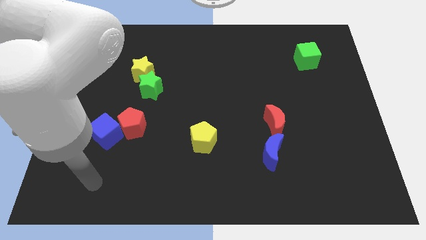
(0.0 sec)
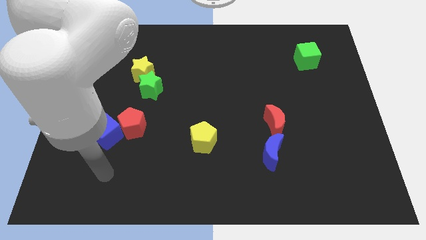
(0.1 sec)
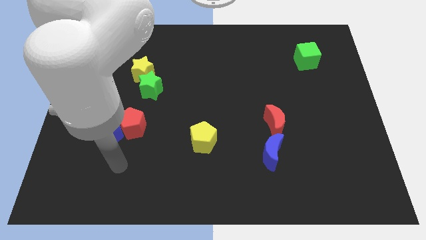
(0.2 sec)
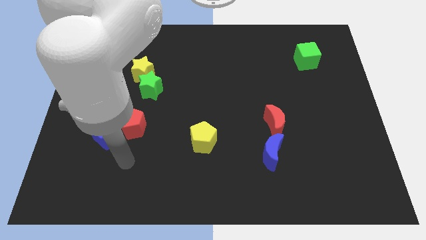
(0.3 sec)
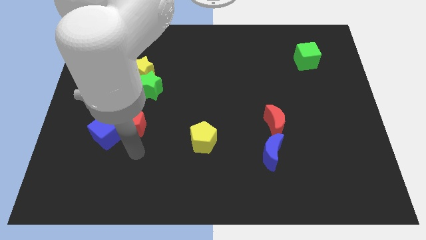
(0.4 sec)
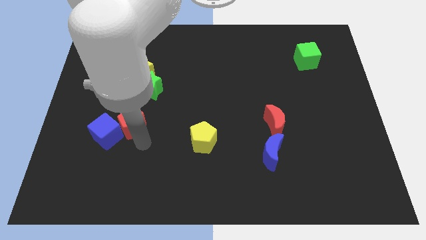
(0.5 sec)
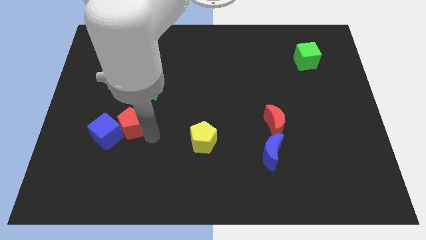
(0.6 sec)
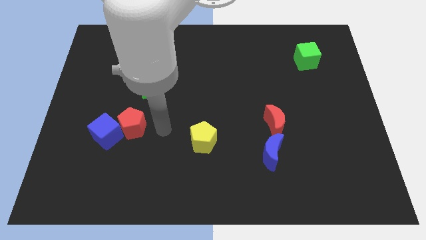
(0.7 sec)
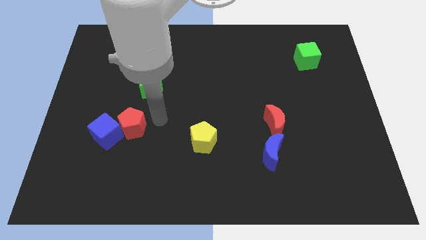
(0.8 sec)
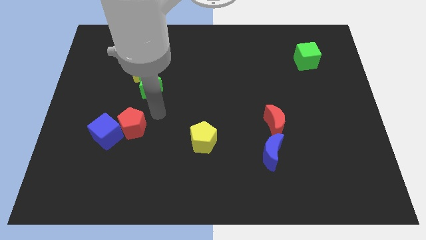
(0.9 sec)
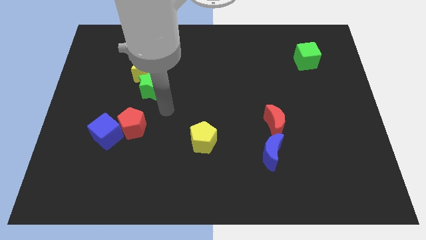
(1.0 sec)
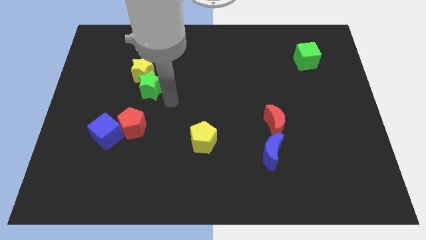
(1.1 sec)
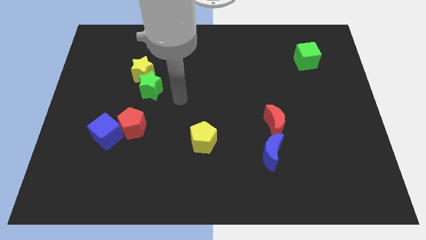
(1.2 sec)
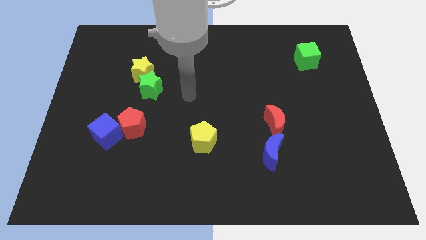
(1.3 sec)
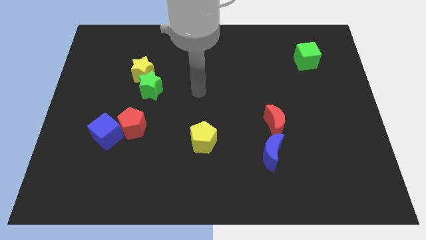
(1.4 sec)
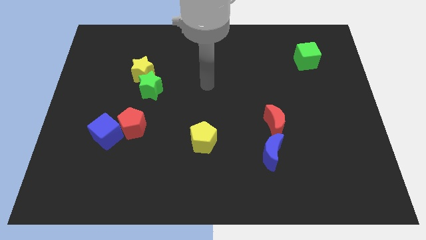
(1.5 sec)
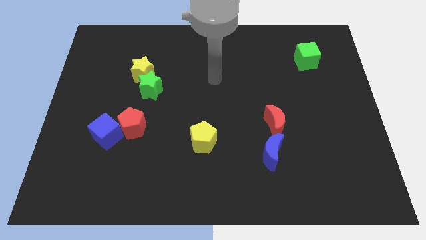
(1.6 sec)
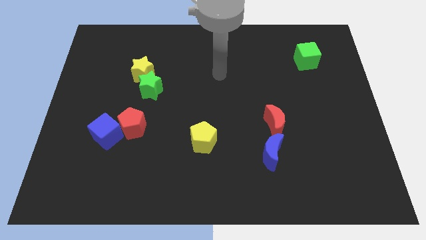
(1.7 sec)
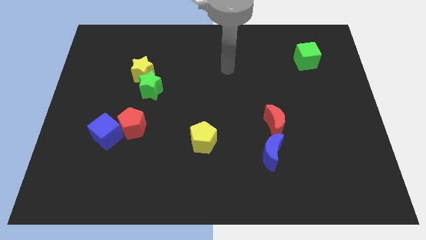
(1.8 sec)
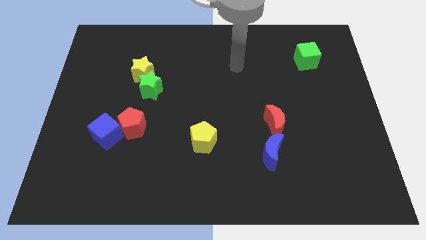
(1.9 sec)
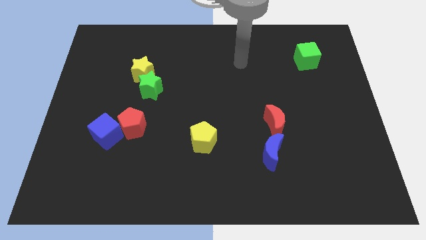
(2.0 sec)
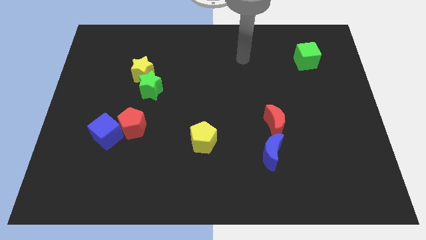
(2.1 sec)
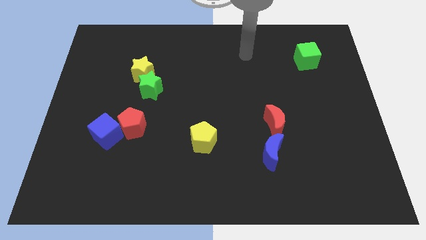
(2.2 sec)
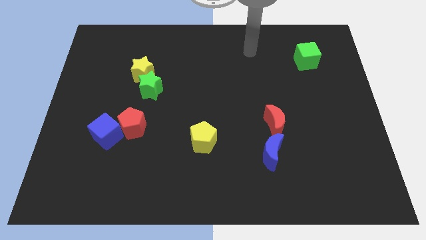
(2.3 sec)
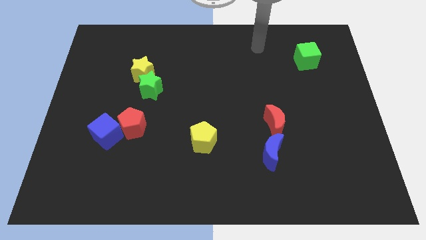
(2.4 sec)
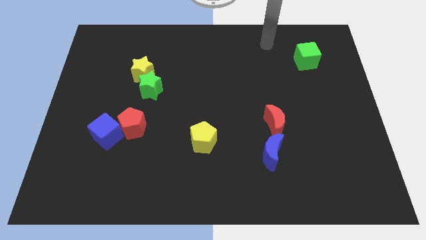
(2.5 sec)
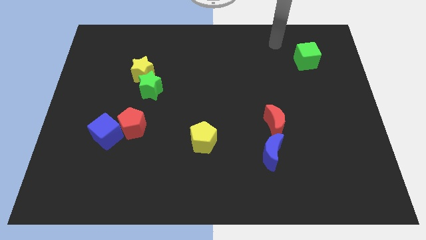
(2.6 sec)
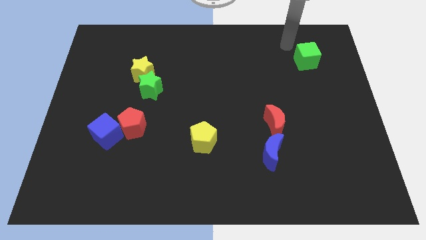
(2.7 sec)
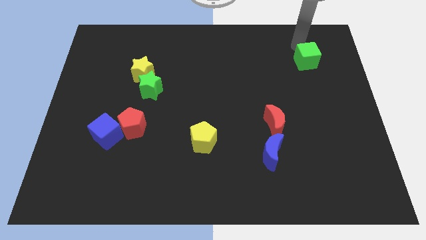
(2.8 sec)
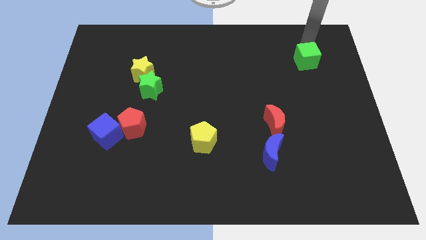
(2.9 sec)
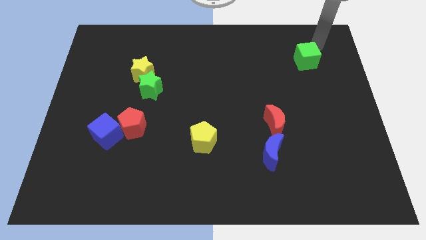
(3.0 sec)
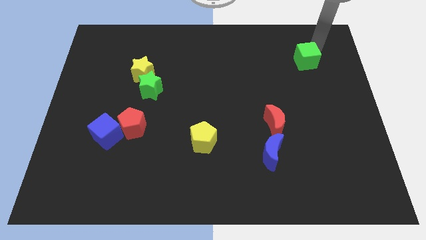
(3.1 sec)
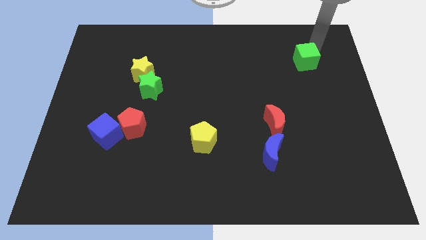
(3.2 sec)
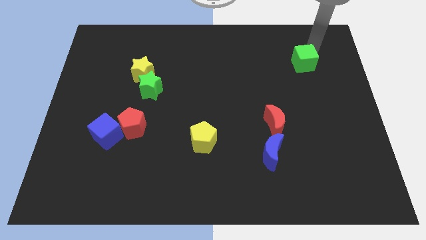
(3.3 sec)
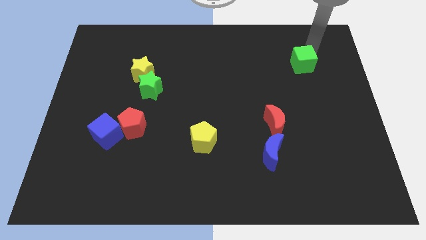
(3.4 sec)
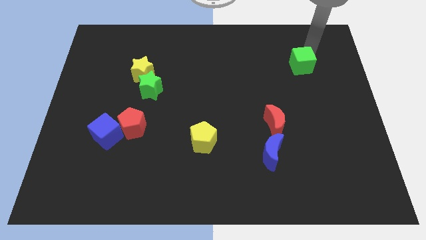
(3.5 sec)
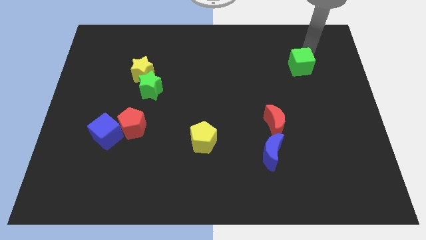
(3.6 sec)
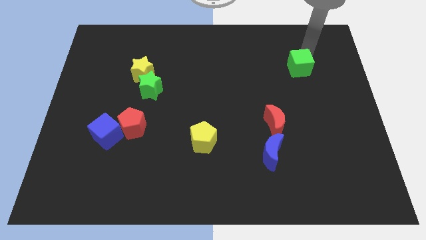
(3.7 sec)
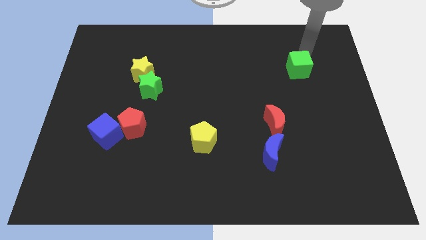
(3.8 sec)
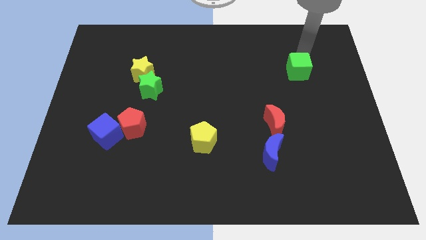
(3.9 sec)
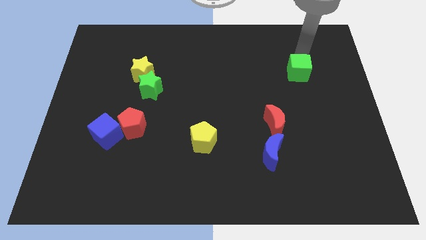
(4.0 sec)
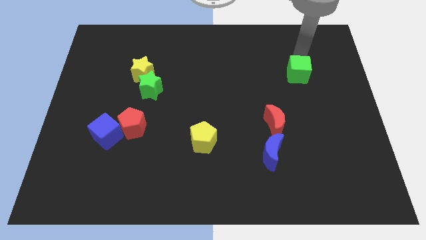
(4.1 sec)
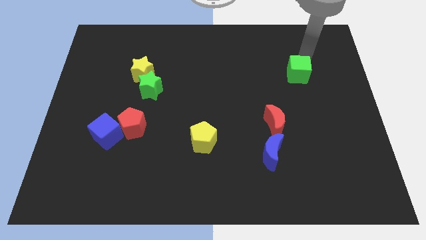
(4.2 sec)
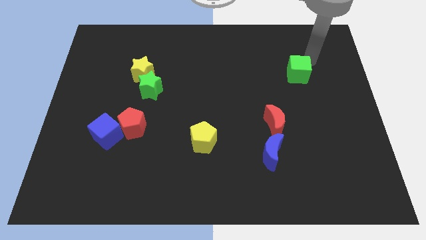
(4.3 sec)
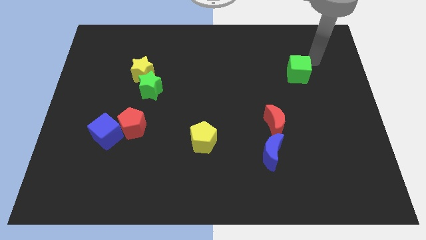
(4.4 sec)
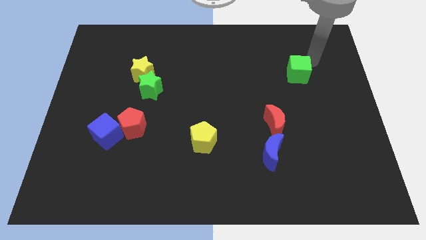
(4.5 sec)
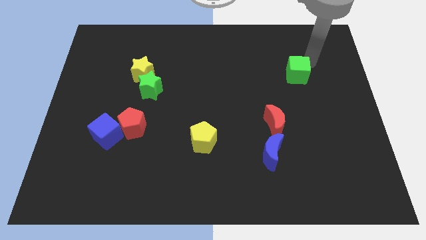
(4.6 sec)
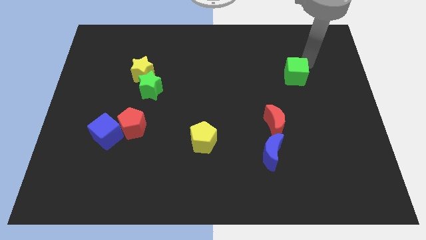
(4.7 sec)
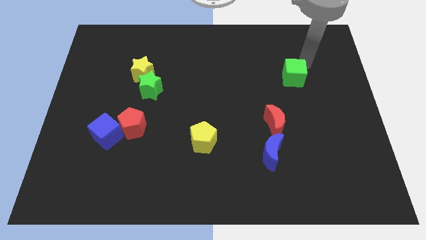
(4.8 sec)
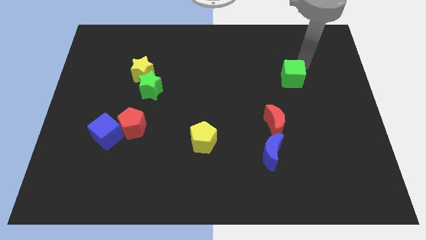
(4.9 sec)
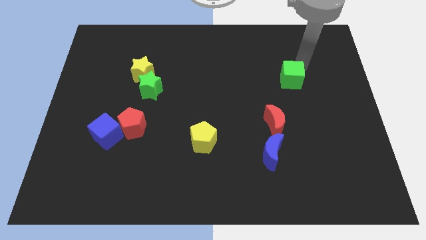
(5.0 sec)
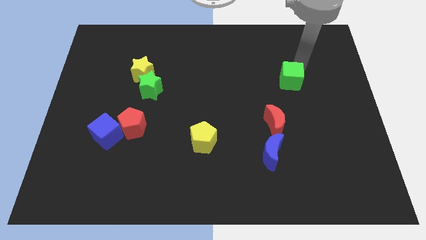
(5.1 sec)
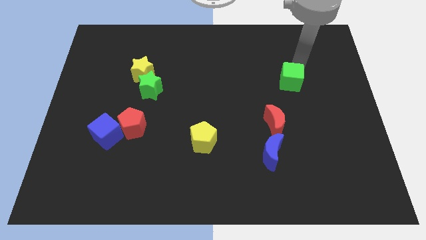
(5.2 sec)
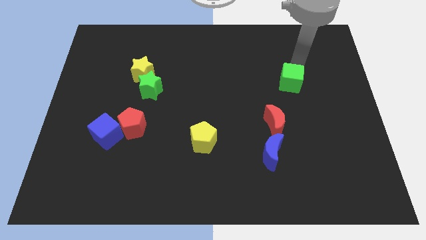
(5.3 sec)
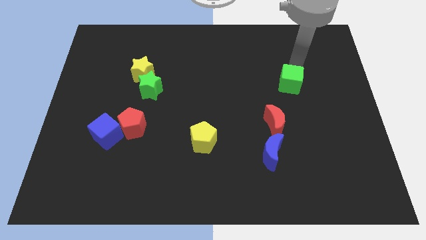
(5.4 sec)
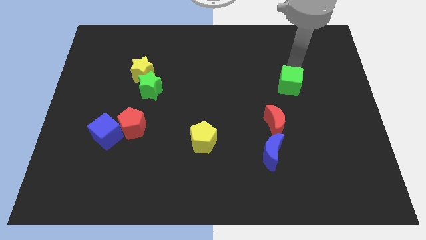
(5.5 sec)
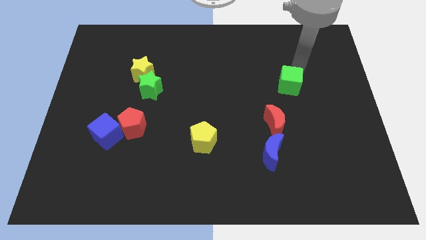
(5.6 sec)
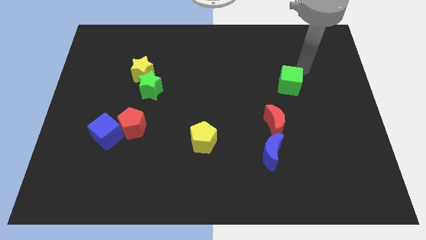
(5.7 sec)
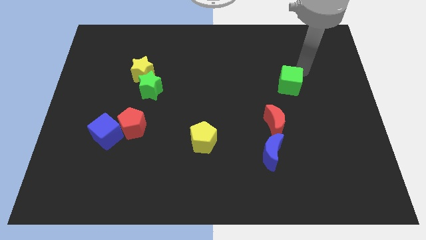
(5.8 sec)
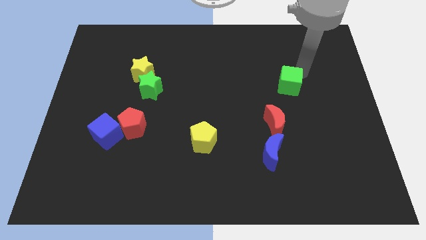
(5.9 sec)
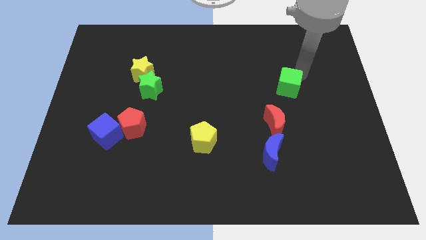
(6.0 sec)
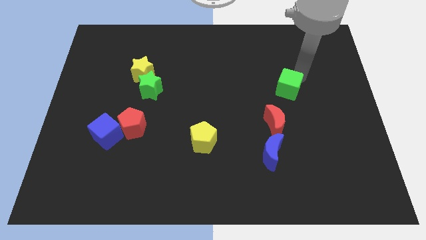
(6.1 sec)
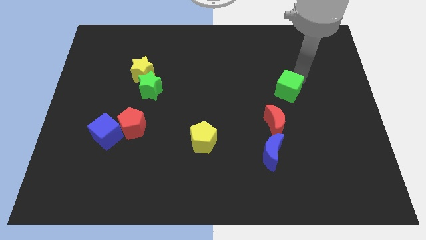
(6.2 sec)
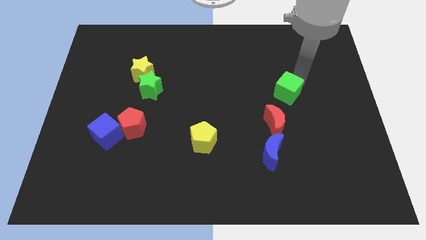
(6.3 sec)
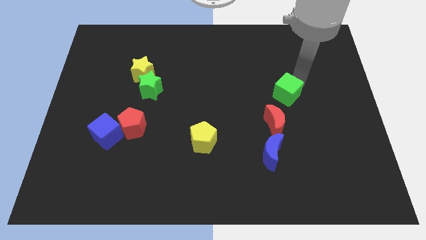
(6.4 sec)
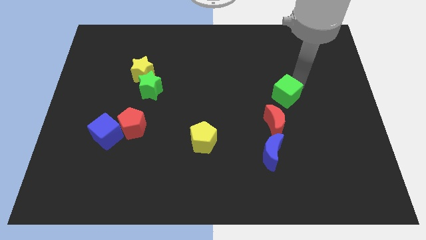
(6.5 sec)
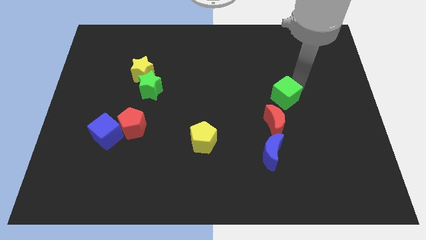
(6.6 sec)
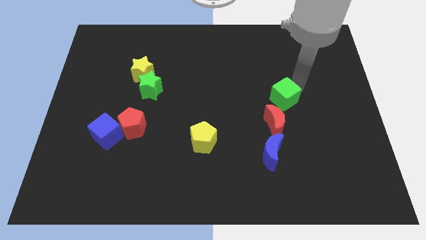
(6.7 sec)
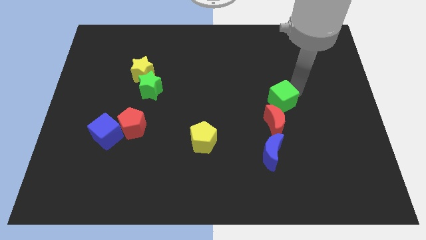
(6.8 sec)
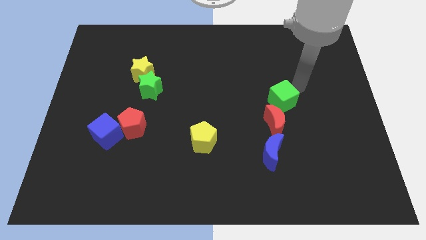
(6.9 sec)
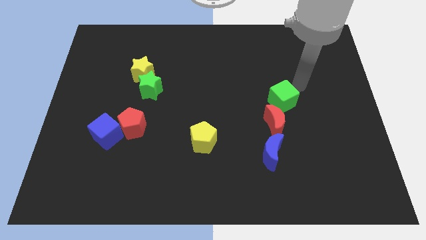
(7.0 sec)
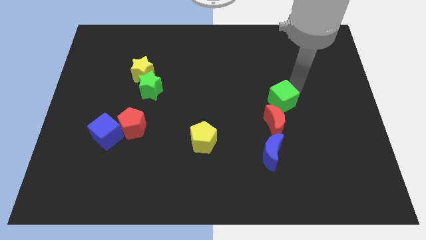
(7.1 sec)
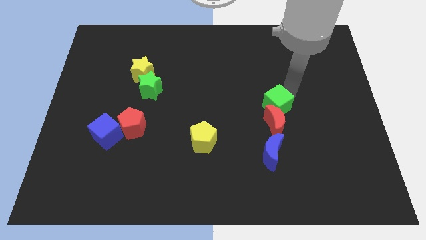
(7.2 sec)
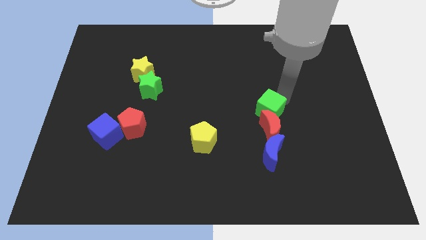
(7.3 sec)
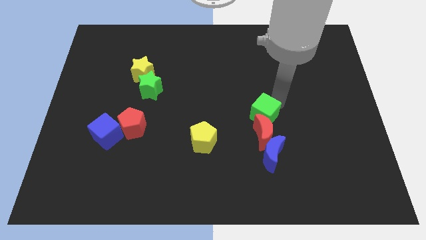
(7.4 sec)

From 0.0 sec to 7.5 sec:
move the green cube down and to the left diagonally

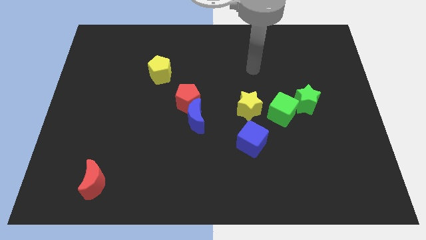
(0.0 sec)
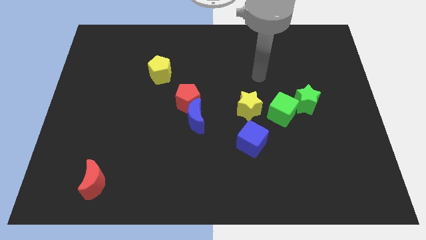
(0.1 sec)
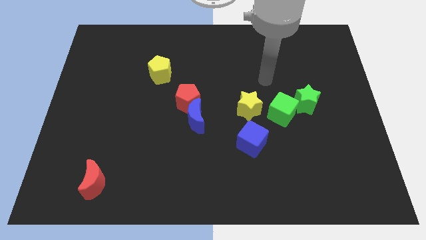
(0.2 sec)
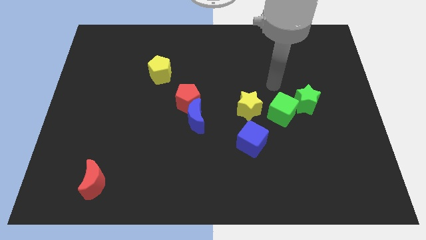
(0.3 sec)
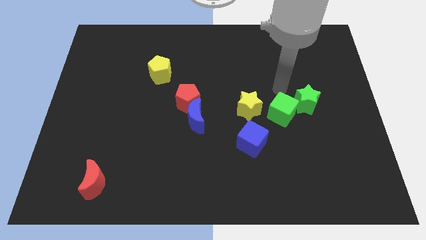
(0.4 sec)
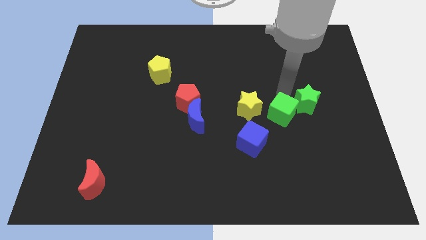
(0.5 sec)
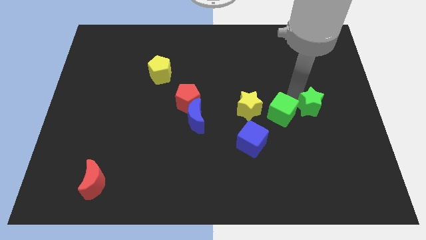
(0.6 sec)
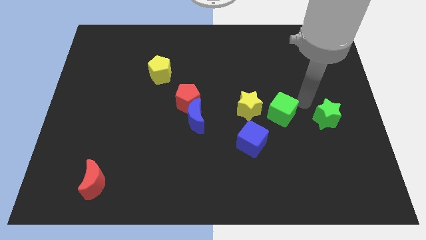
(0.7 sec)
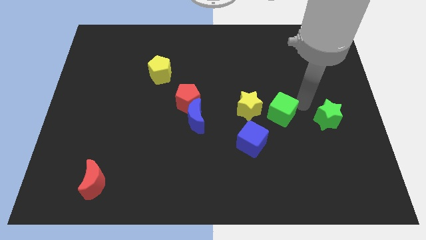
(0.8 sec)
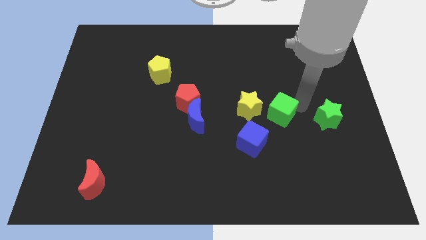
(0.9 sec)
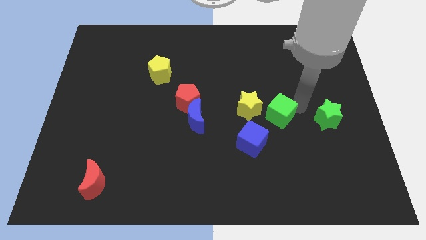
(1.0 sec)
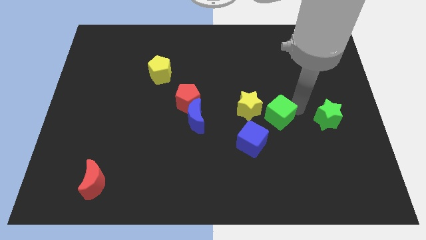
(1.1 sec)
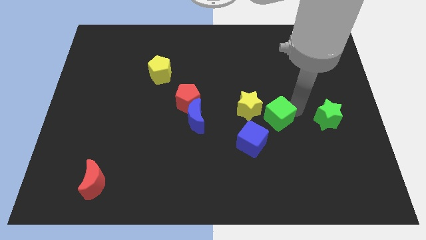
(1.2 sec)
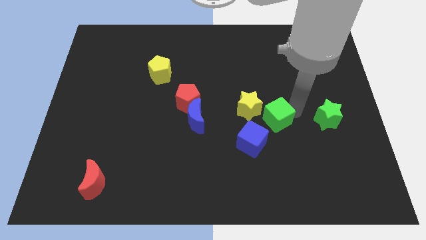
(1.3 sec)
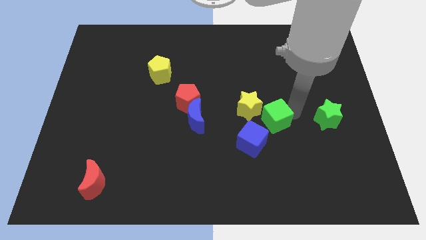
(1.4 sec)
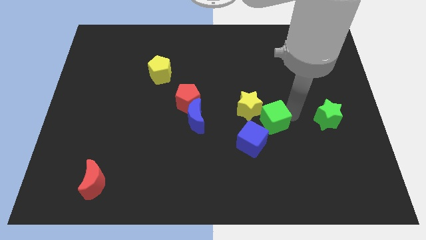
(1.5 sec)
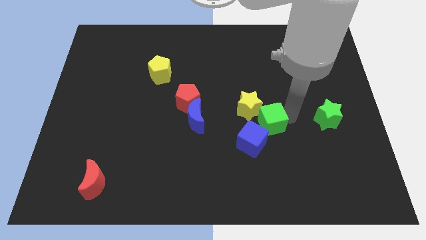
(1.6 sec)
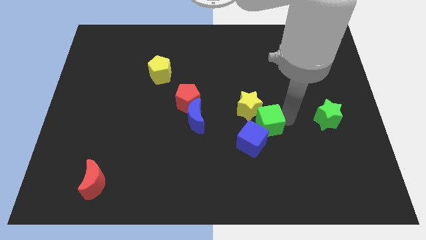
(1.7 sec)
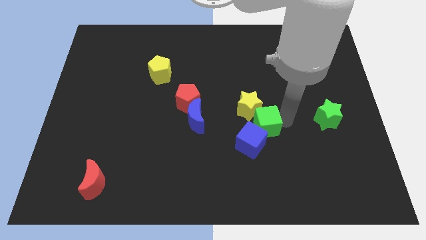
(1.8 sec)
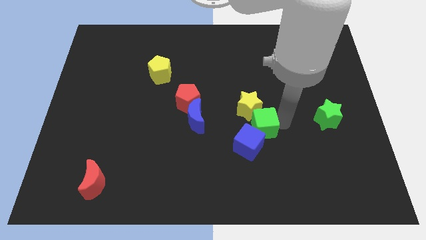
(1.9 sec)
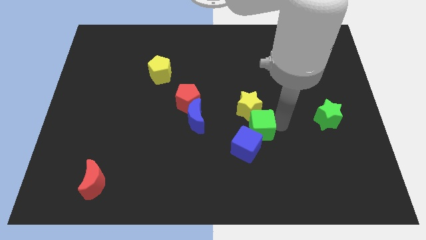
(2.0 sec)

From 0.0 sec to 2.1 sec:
slightly push the green cube down and left diagonally
